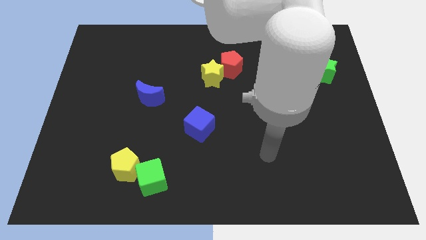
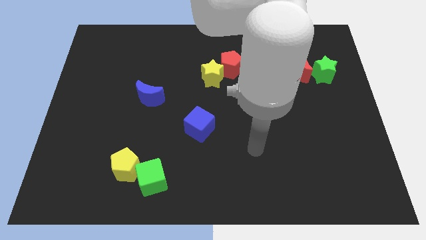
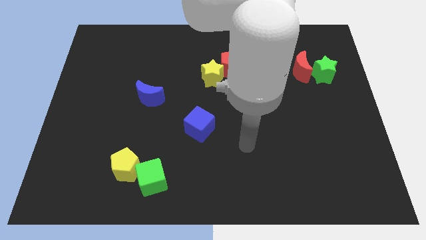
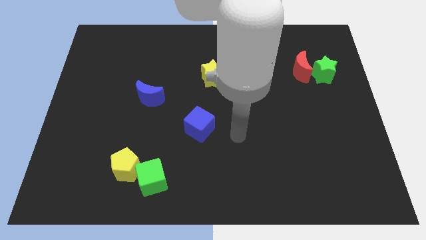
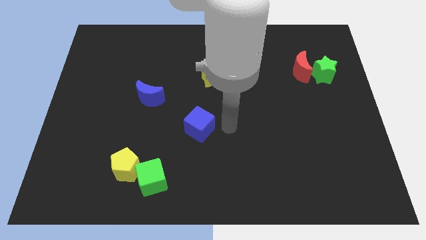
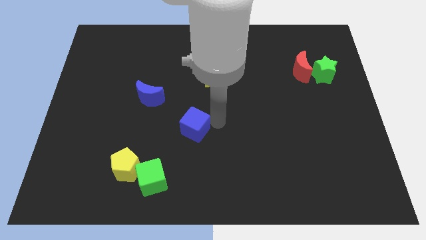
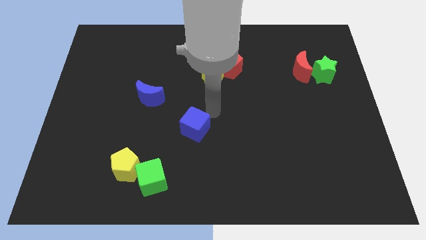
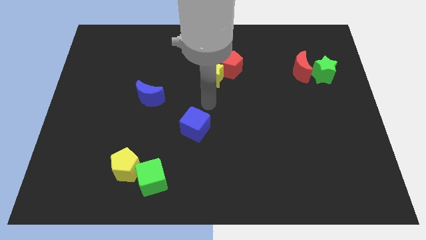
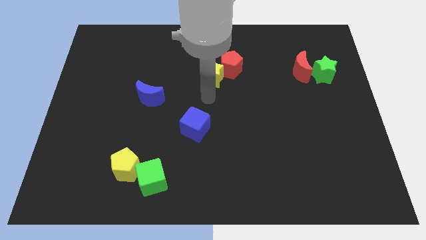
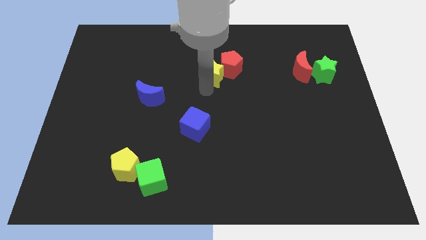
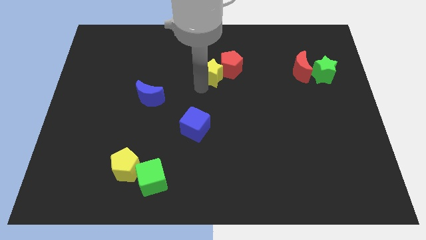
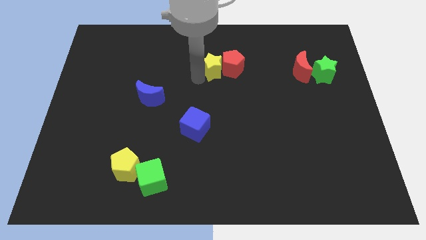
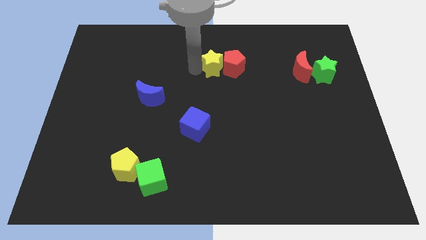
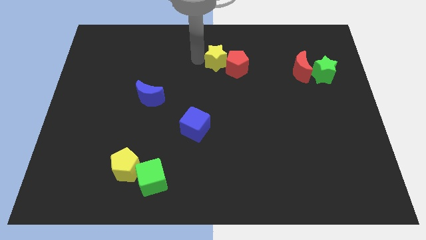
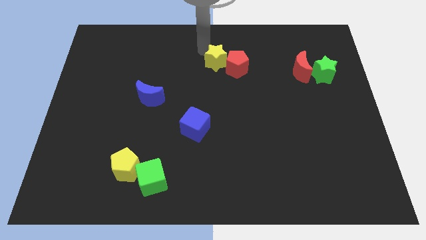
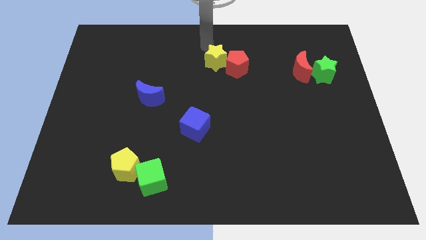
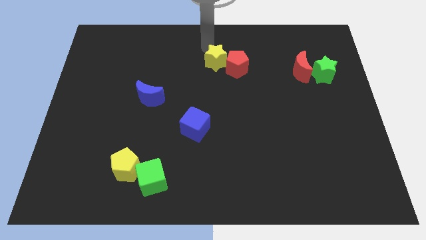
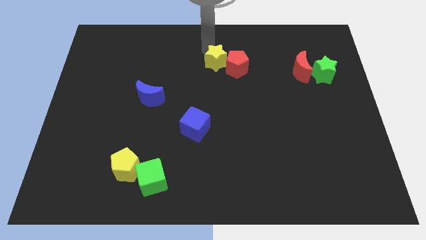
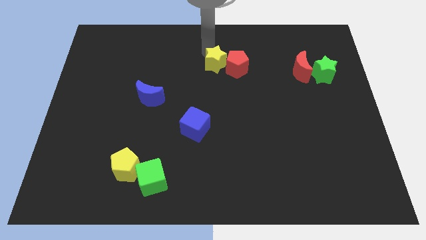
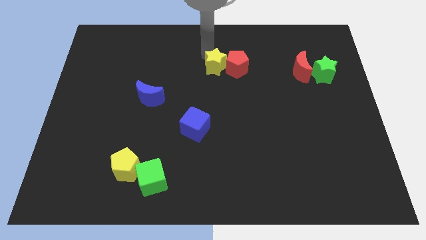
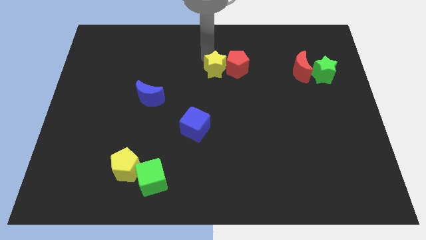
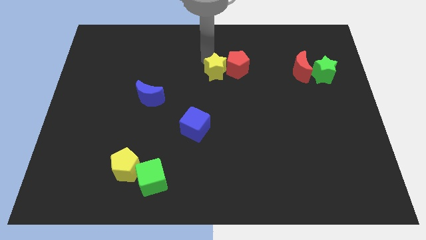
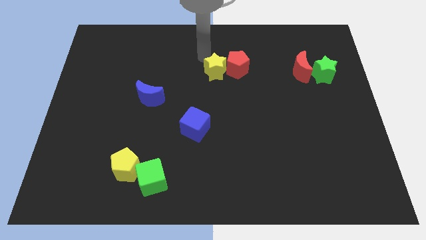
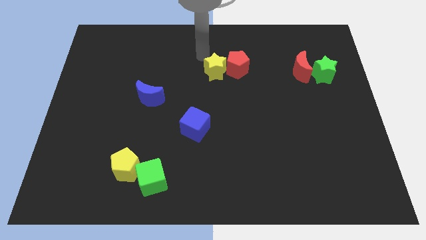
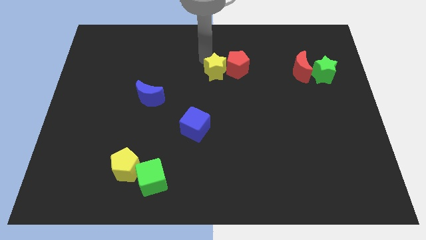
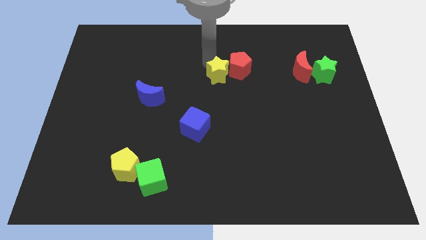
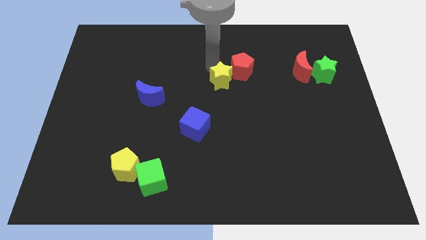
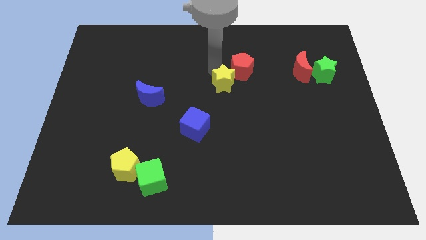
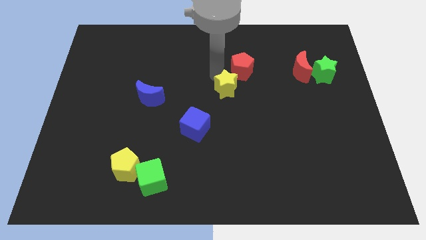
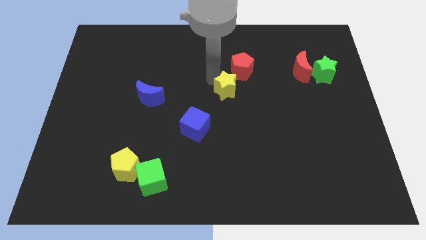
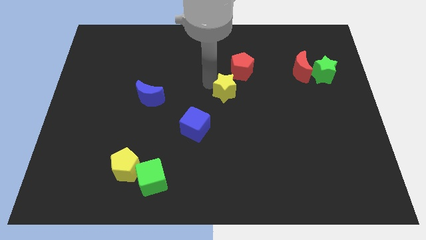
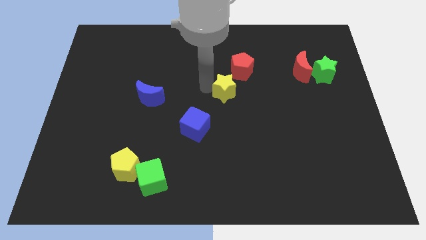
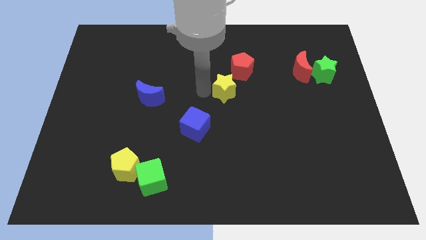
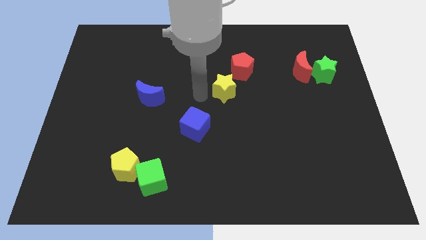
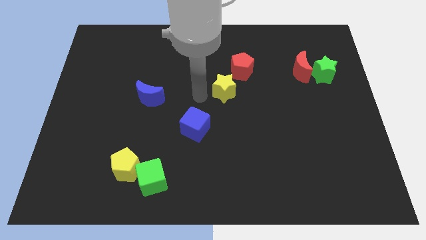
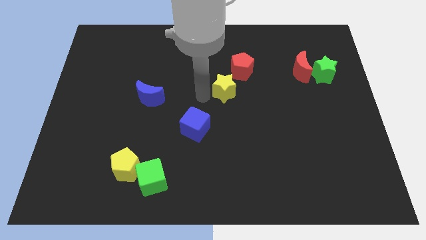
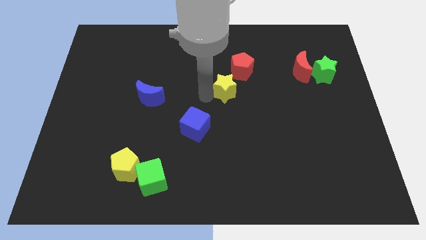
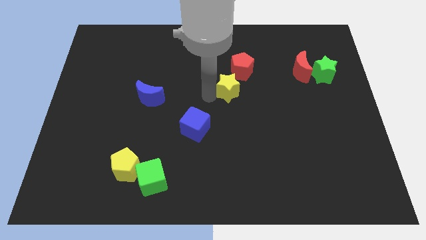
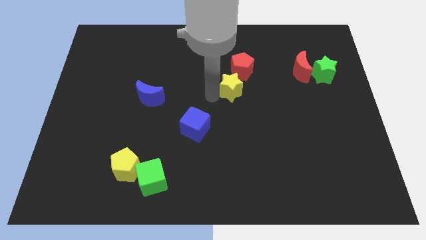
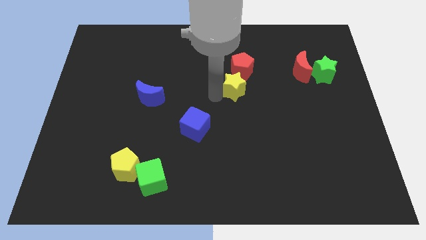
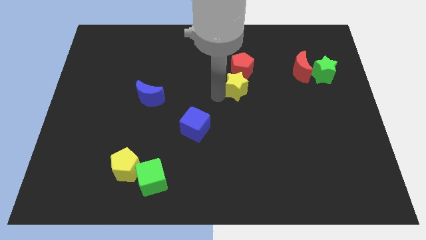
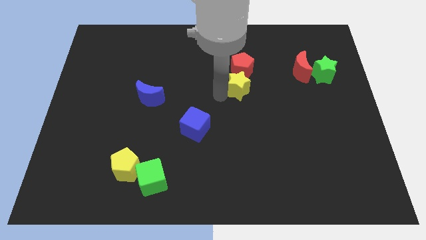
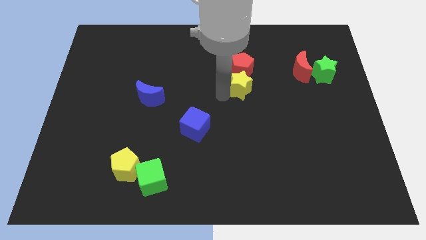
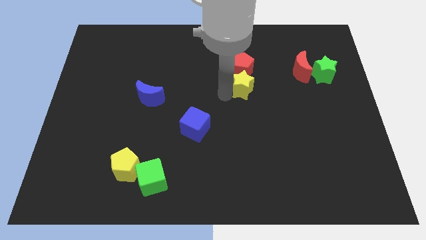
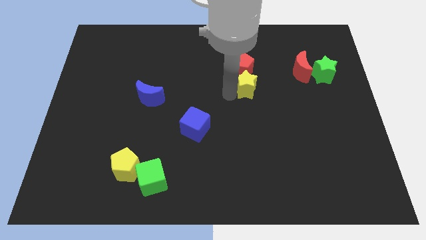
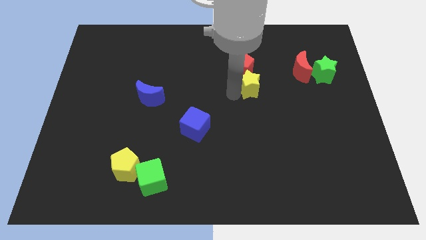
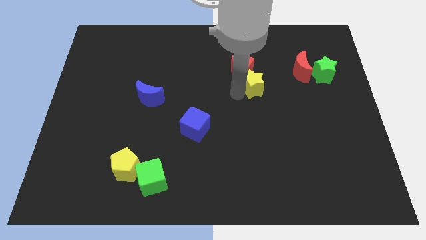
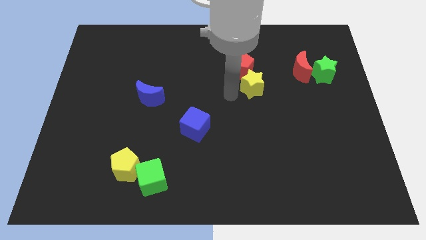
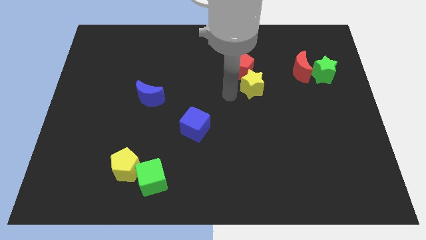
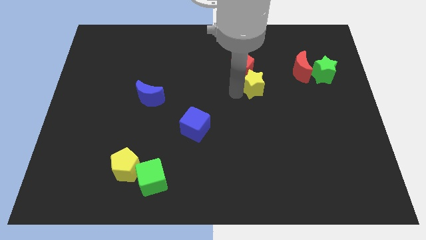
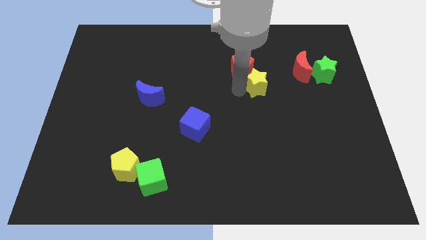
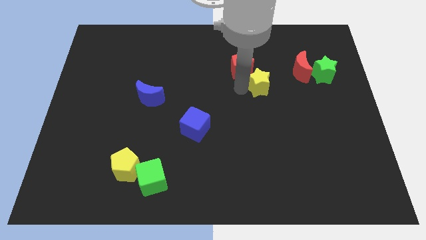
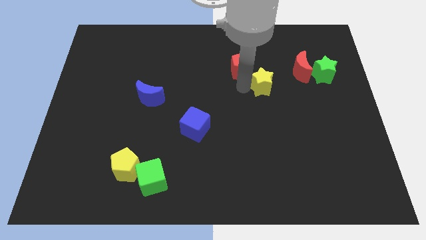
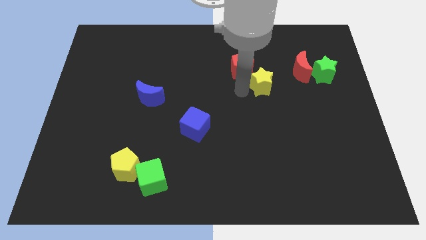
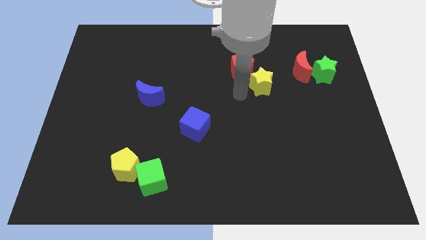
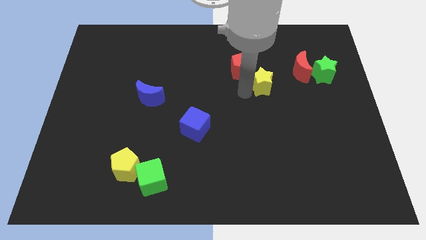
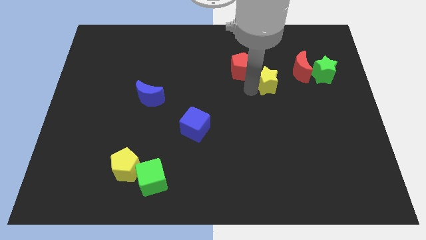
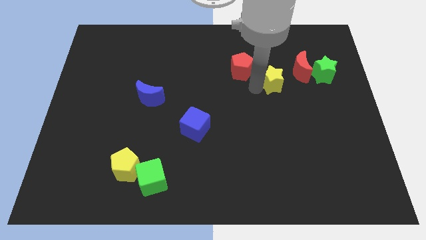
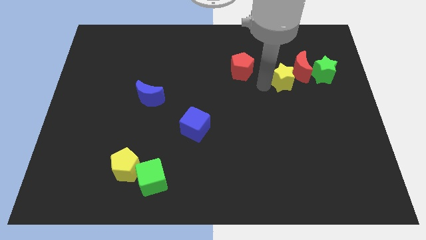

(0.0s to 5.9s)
put the yellow star to the red moon

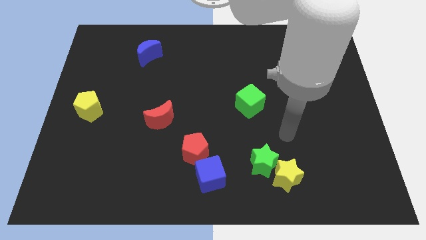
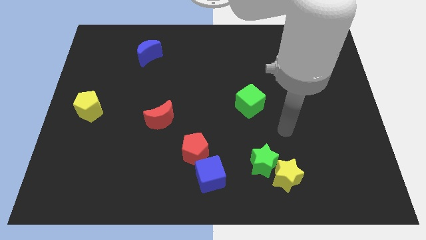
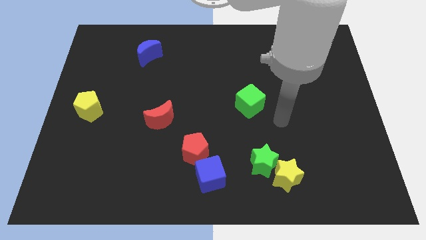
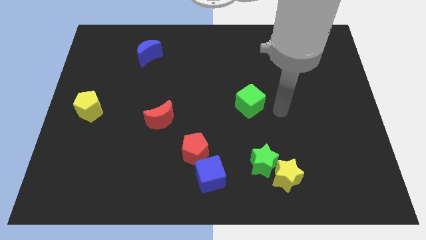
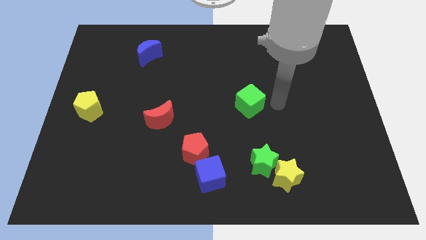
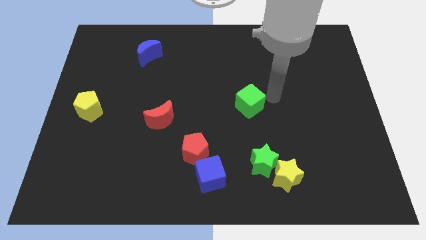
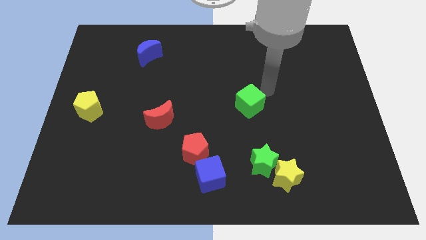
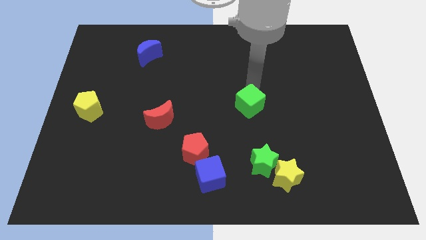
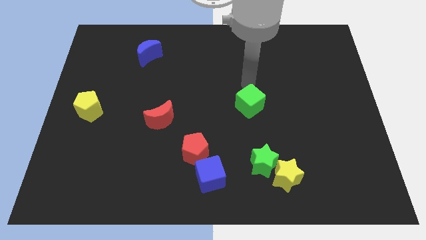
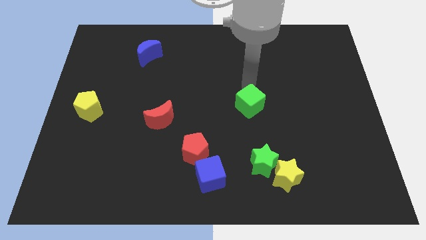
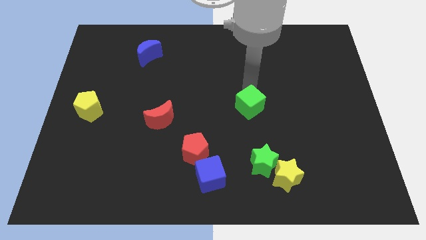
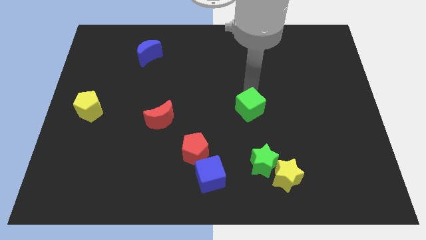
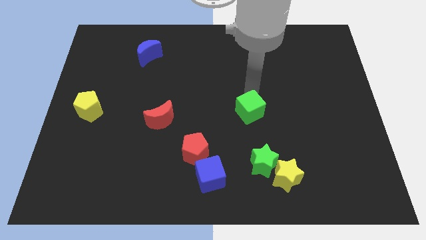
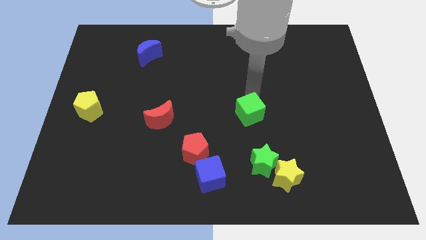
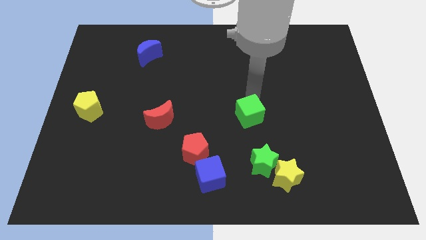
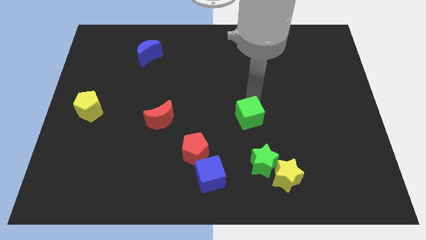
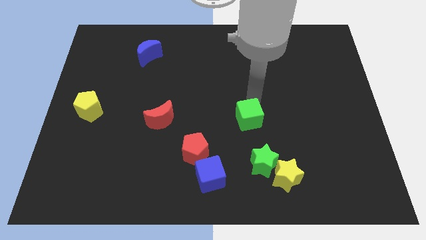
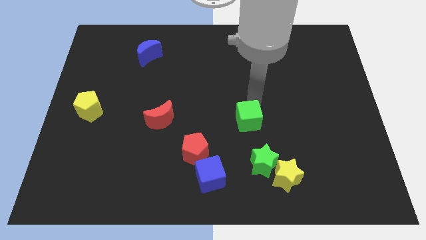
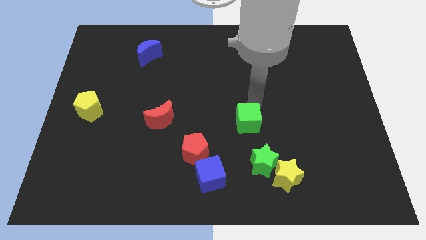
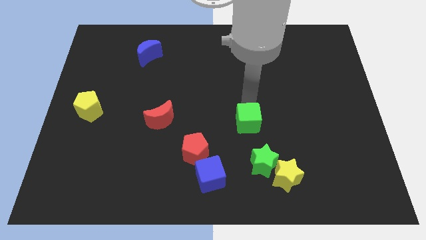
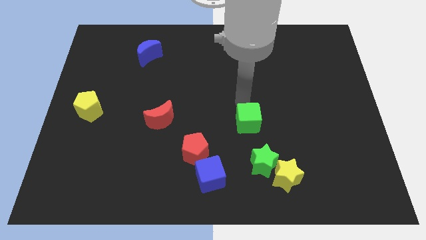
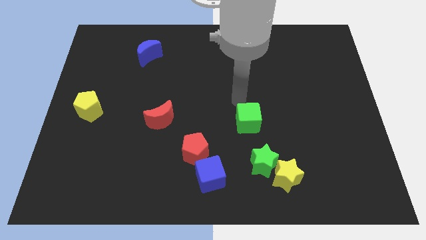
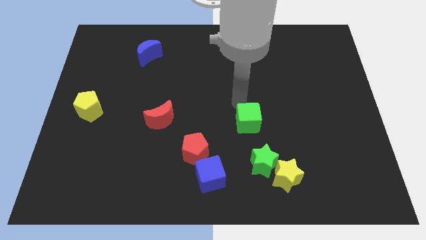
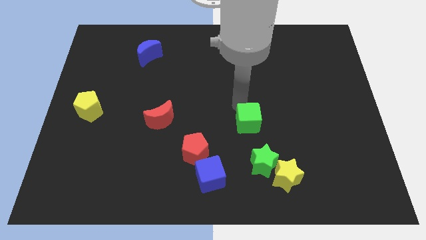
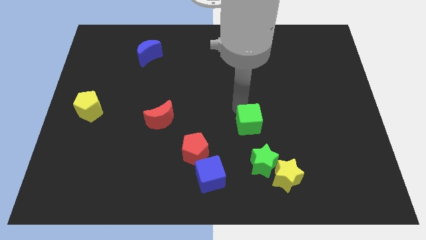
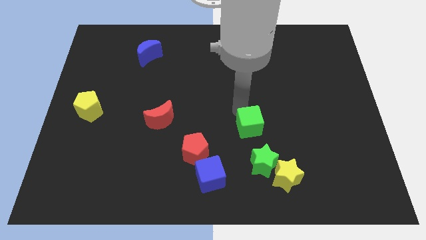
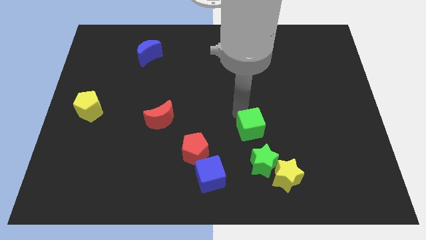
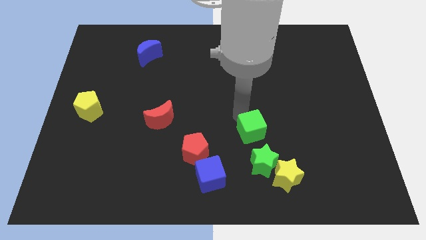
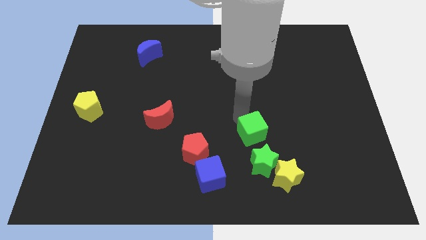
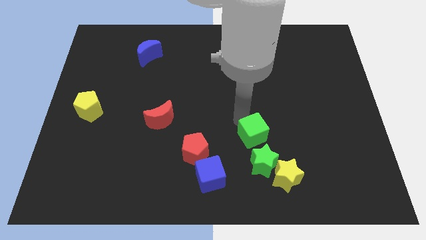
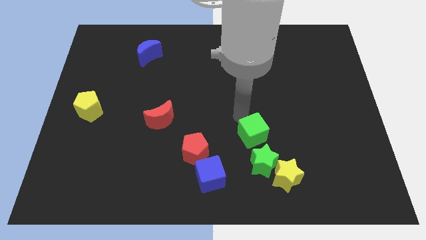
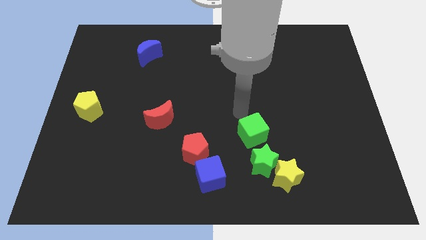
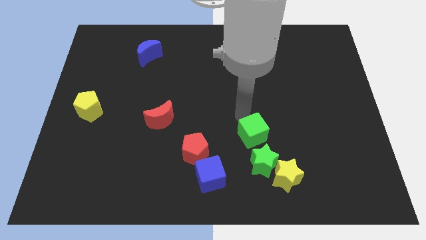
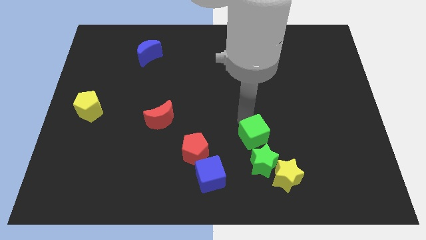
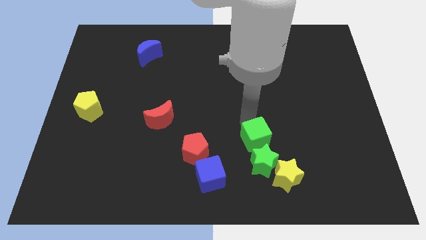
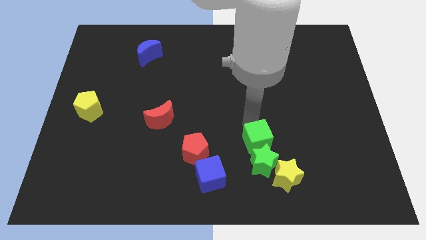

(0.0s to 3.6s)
slide the green cube to the green star
